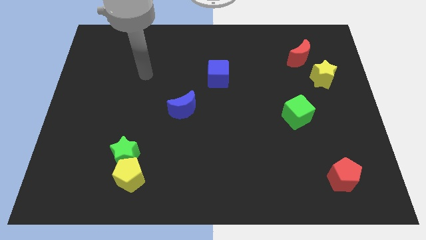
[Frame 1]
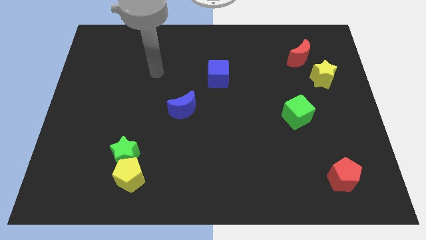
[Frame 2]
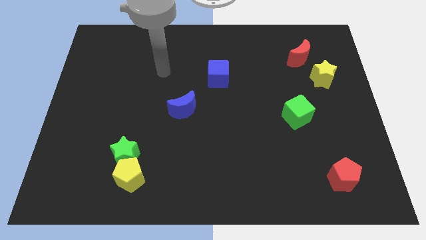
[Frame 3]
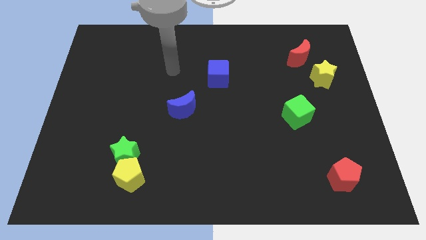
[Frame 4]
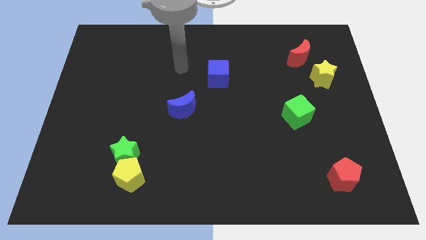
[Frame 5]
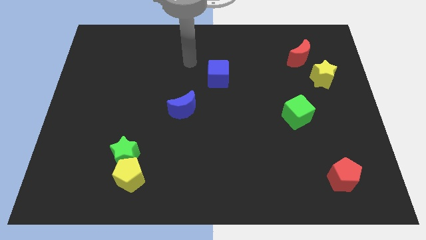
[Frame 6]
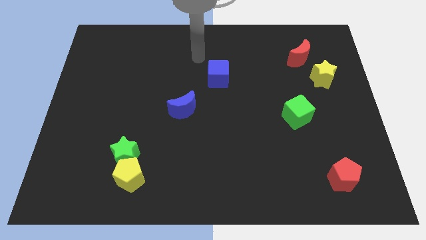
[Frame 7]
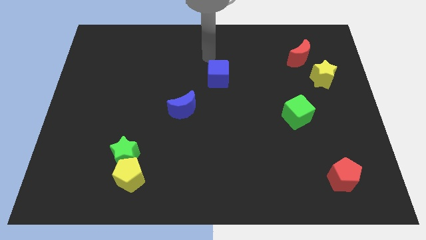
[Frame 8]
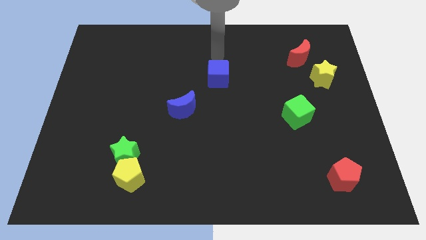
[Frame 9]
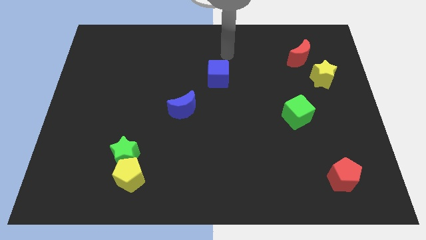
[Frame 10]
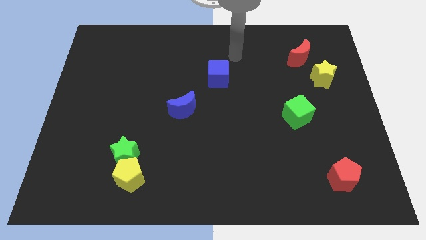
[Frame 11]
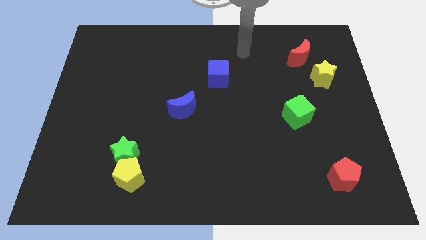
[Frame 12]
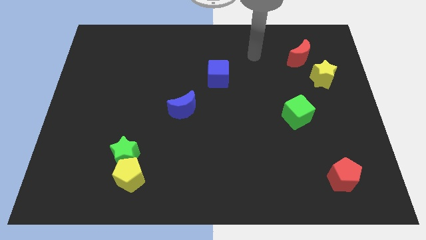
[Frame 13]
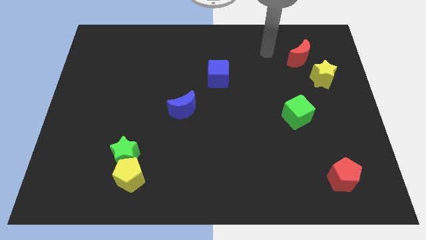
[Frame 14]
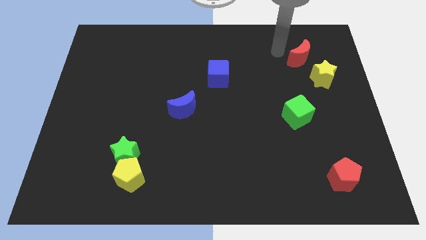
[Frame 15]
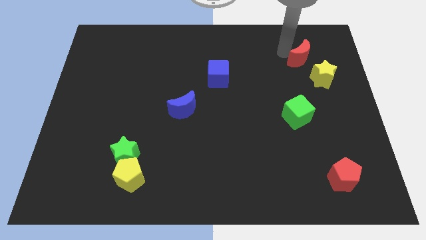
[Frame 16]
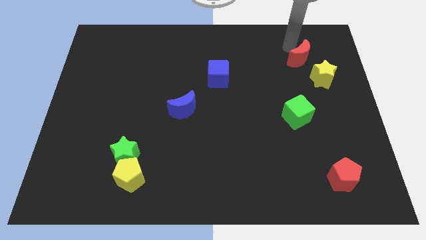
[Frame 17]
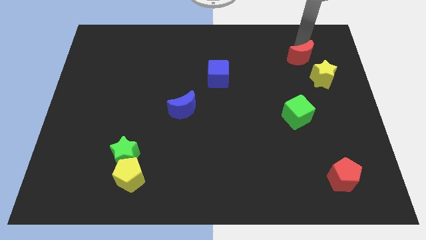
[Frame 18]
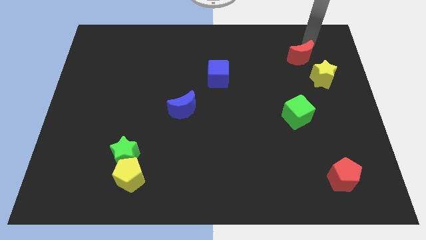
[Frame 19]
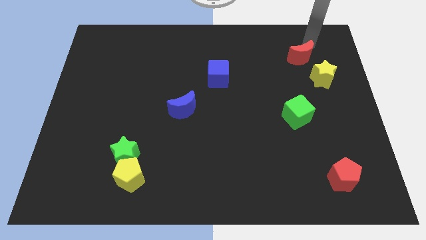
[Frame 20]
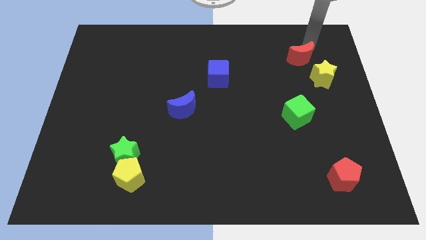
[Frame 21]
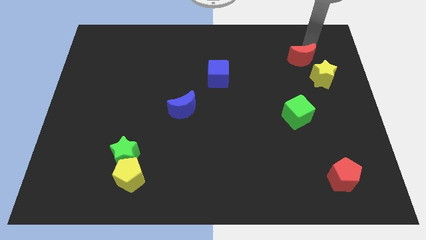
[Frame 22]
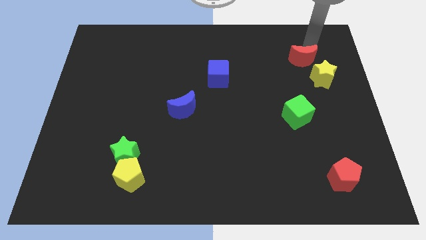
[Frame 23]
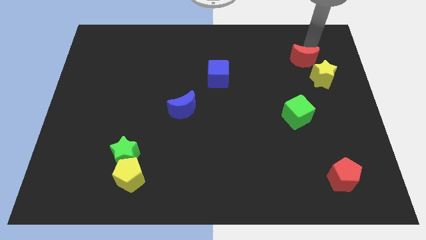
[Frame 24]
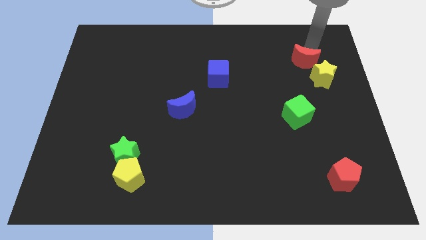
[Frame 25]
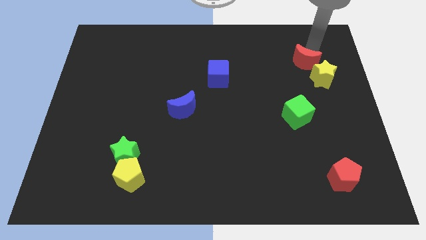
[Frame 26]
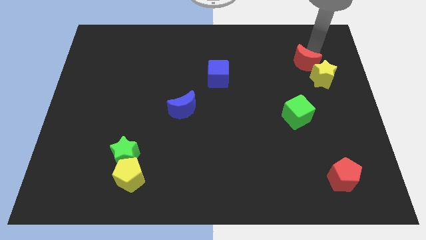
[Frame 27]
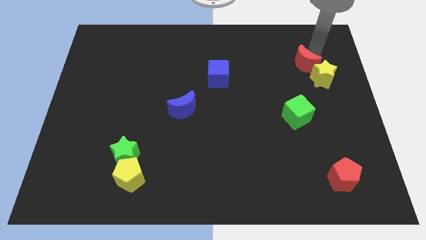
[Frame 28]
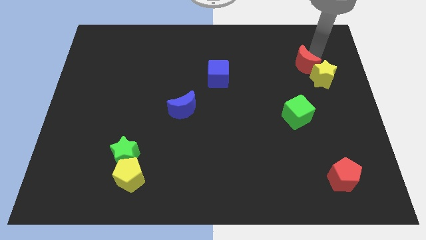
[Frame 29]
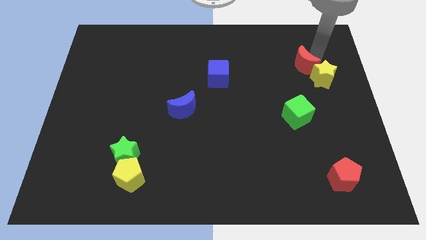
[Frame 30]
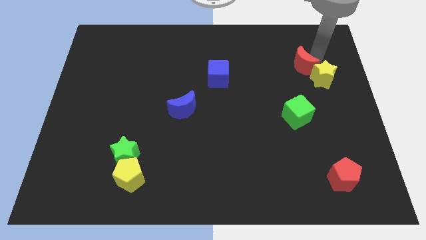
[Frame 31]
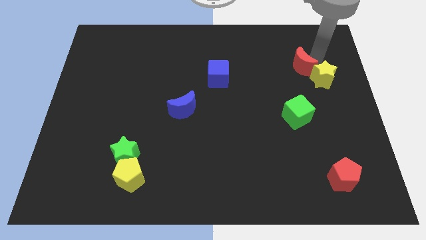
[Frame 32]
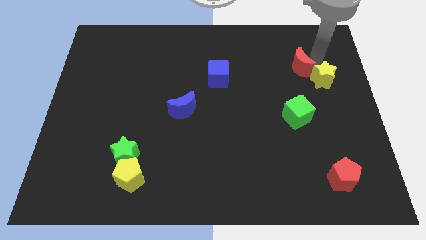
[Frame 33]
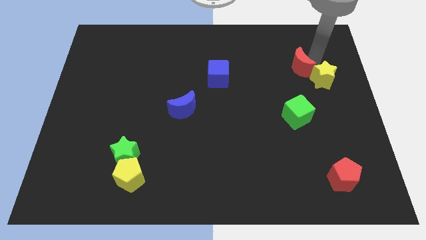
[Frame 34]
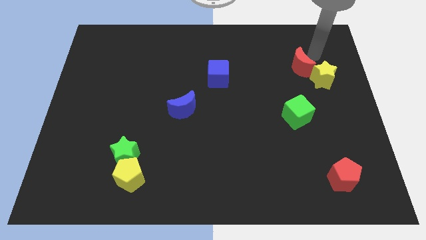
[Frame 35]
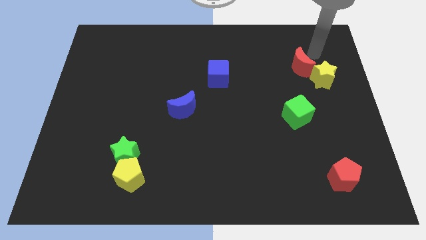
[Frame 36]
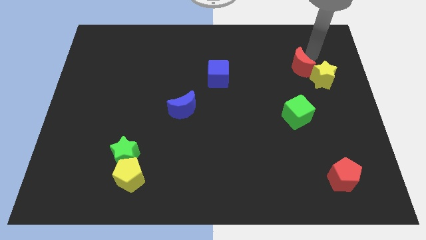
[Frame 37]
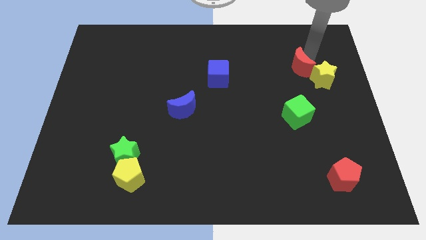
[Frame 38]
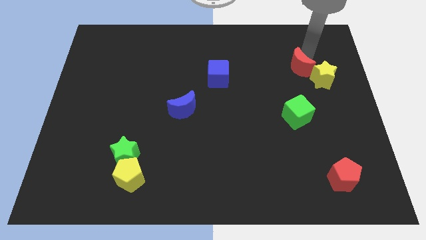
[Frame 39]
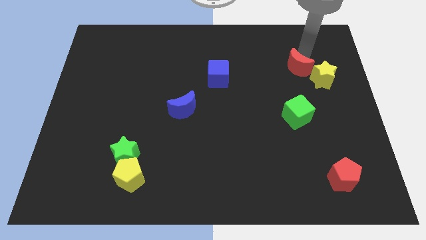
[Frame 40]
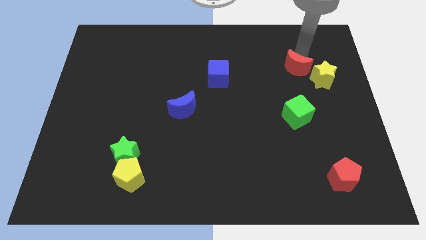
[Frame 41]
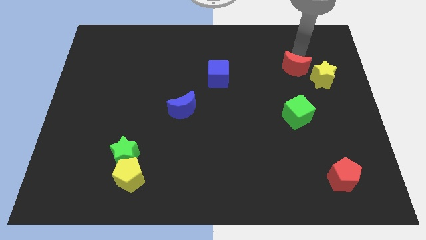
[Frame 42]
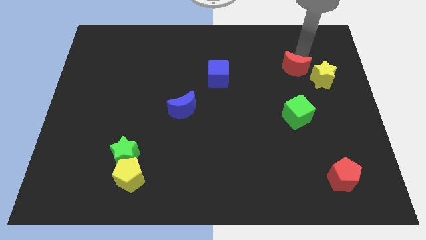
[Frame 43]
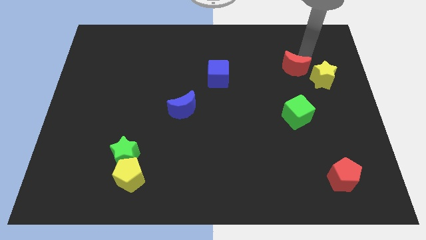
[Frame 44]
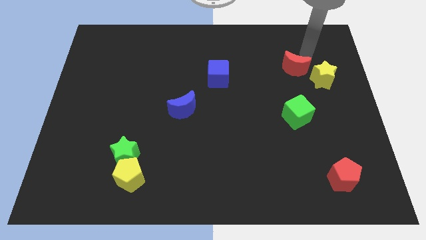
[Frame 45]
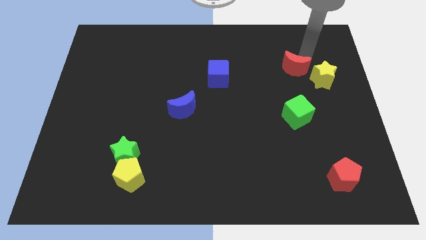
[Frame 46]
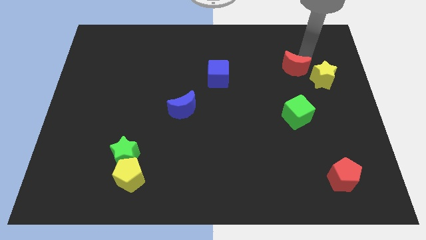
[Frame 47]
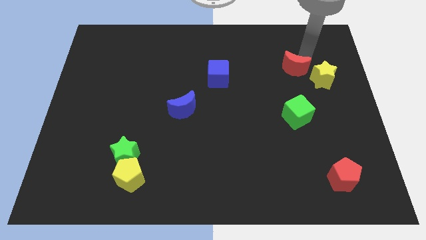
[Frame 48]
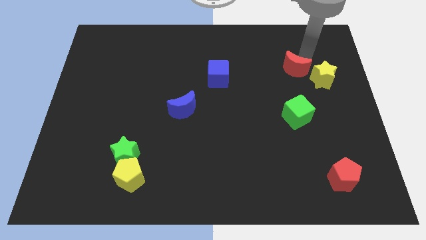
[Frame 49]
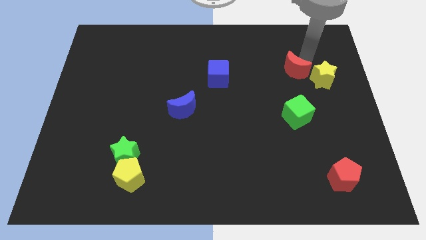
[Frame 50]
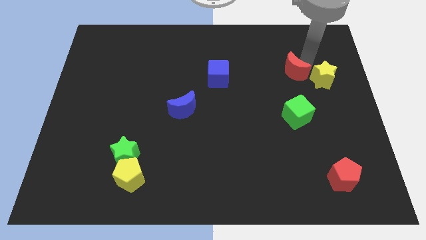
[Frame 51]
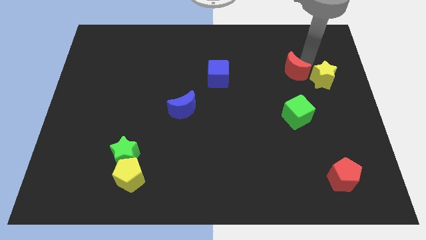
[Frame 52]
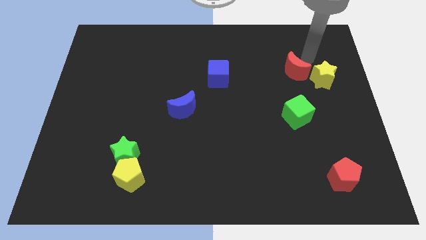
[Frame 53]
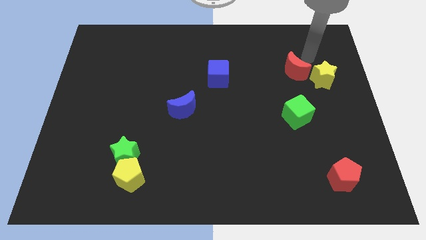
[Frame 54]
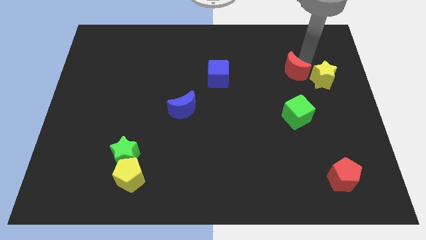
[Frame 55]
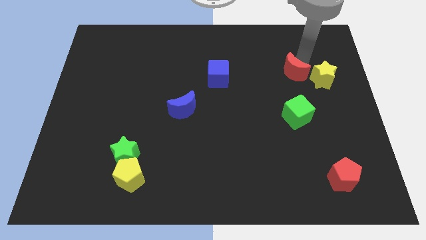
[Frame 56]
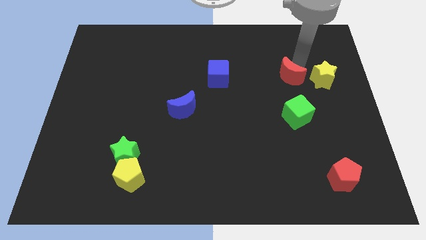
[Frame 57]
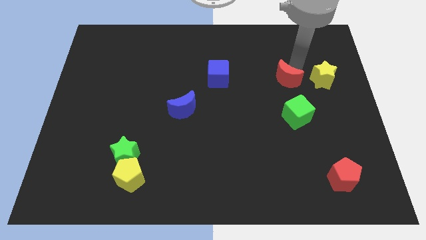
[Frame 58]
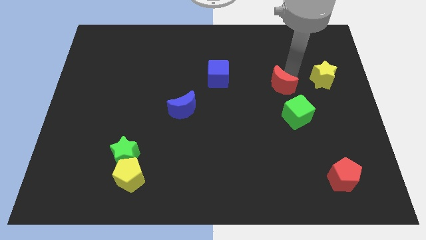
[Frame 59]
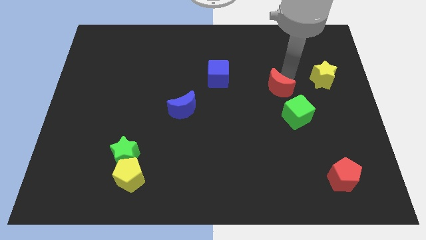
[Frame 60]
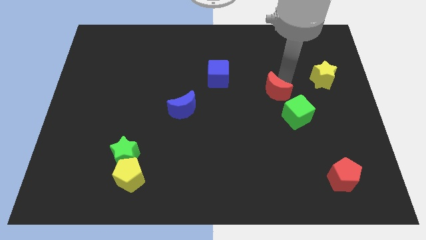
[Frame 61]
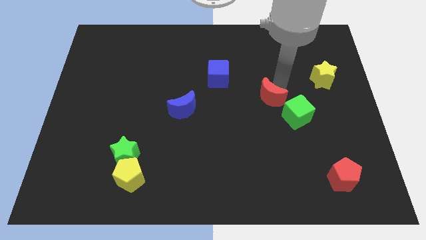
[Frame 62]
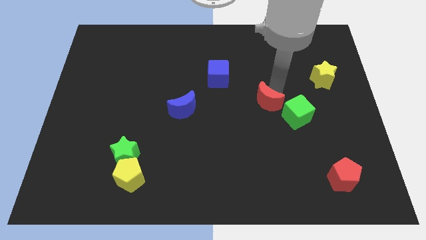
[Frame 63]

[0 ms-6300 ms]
move the red moon to the left of the green cube

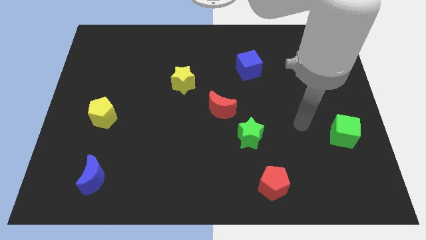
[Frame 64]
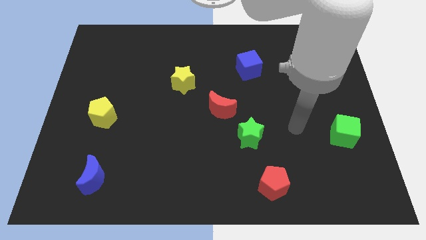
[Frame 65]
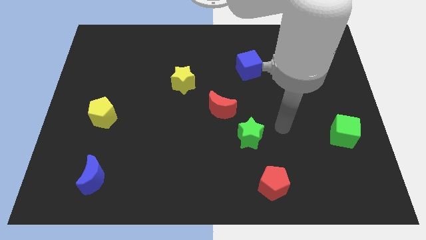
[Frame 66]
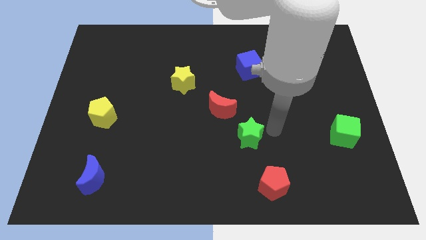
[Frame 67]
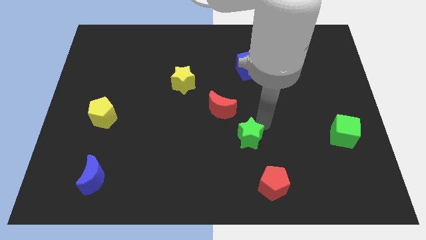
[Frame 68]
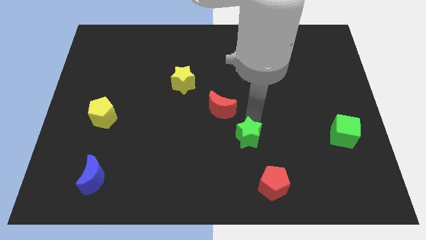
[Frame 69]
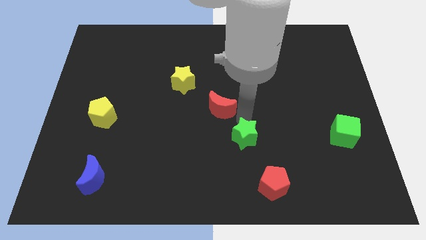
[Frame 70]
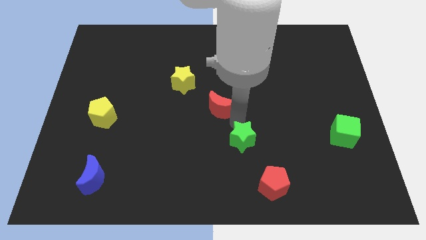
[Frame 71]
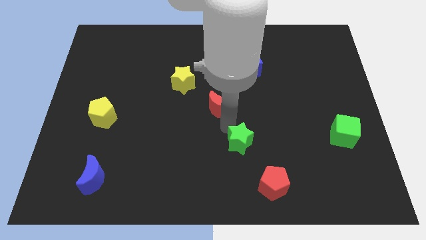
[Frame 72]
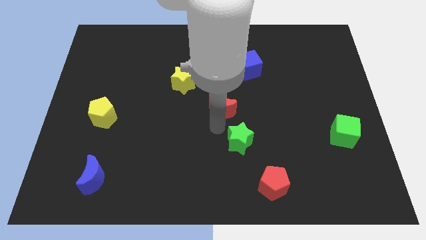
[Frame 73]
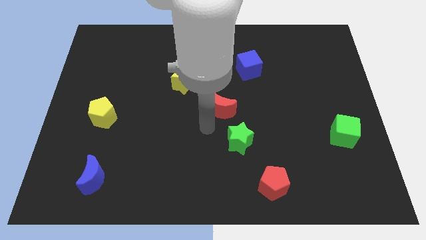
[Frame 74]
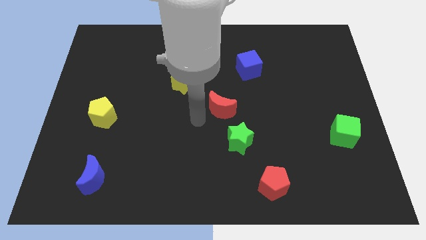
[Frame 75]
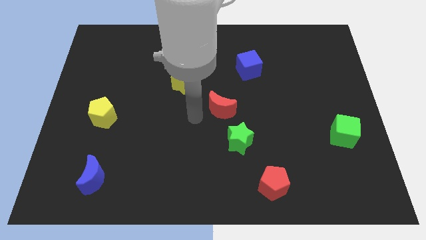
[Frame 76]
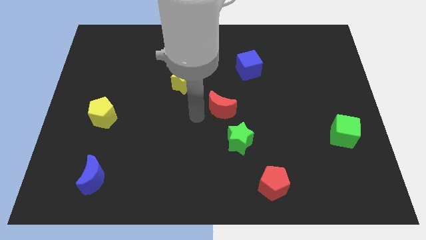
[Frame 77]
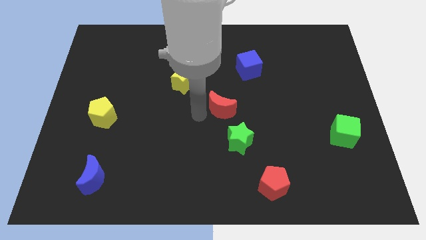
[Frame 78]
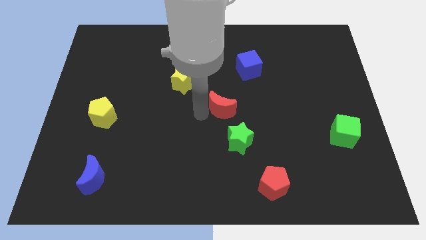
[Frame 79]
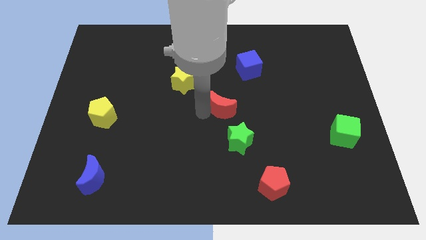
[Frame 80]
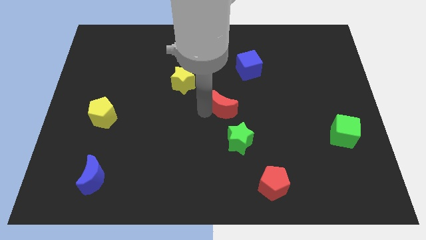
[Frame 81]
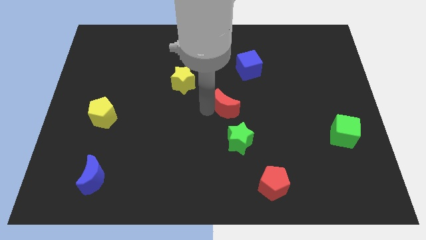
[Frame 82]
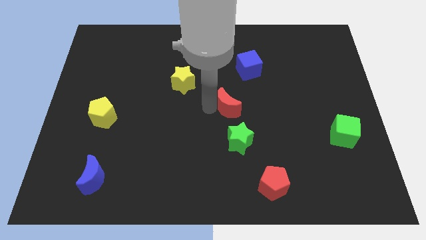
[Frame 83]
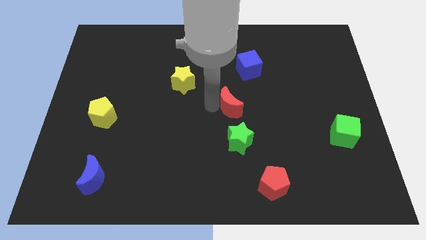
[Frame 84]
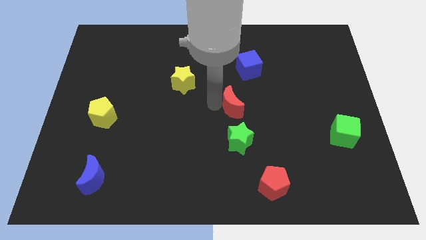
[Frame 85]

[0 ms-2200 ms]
slide the red moon below the blue cube
